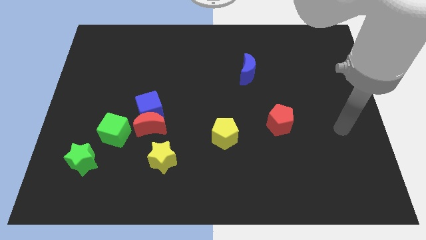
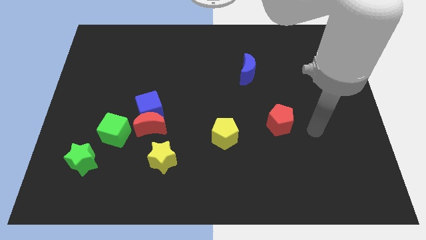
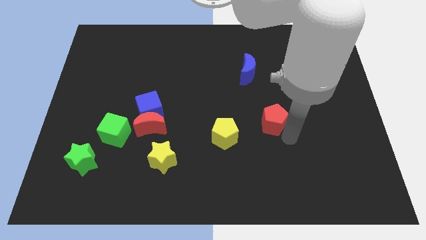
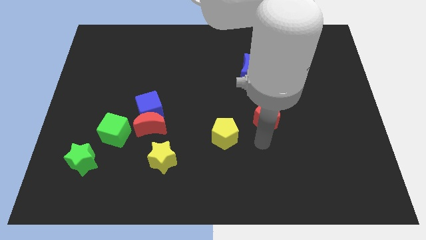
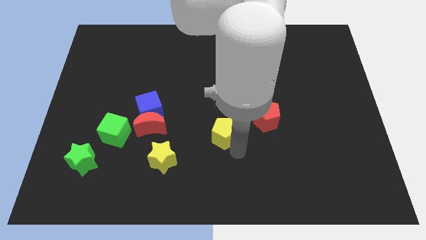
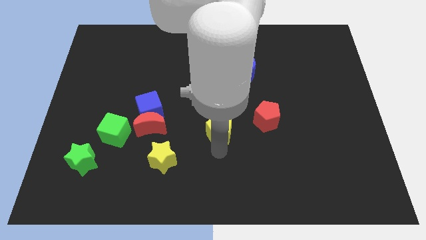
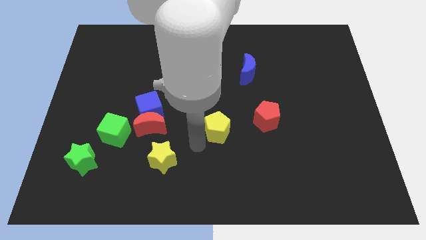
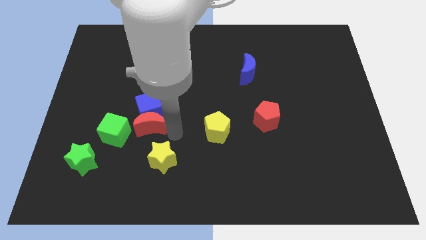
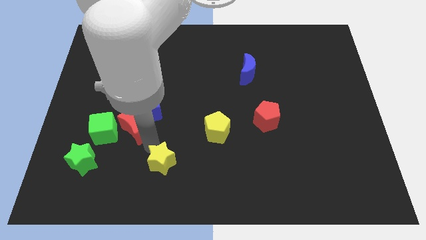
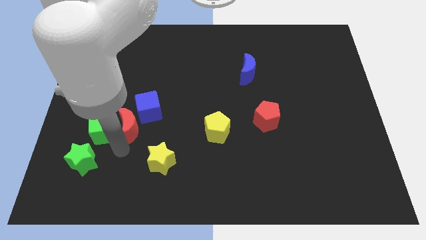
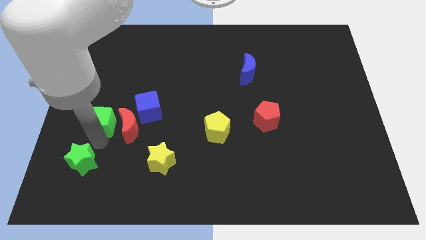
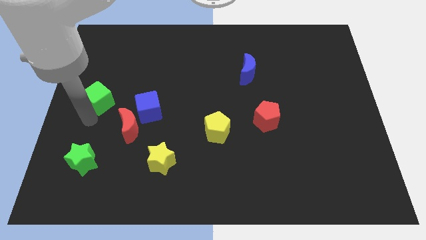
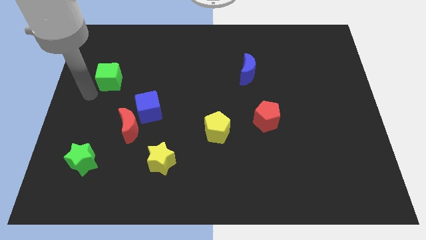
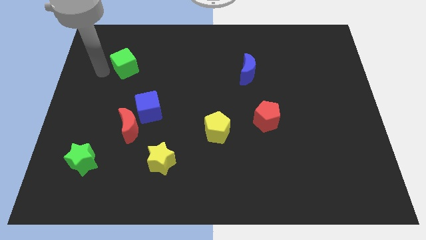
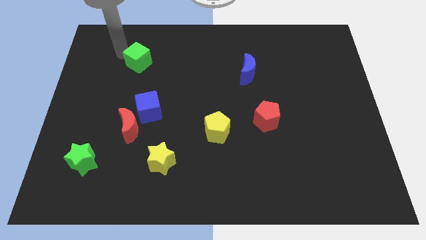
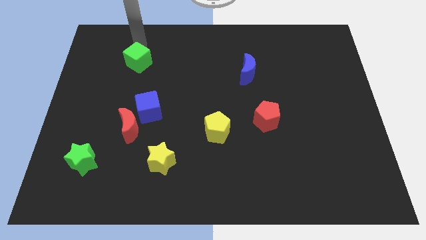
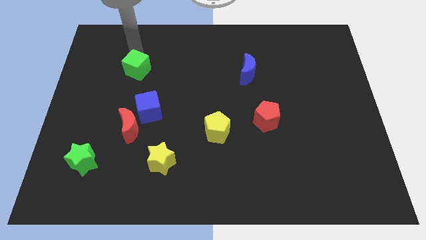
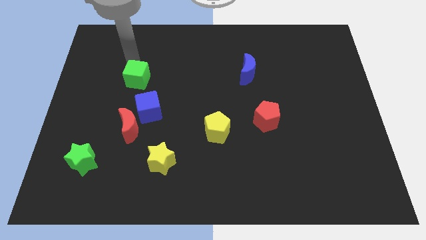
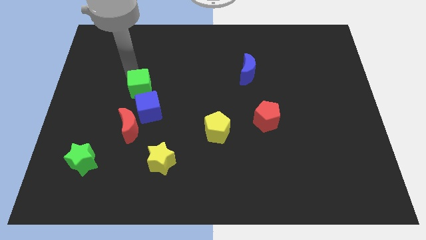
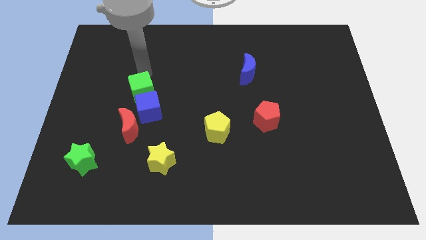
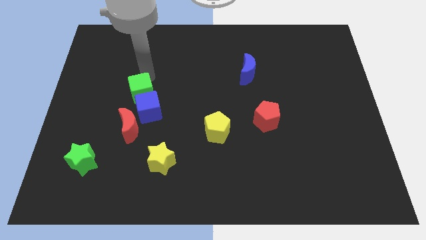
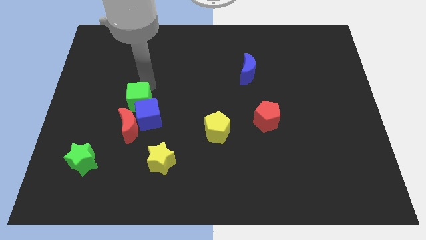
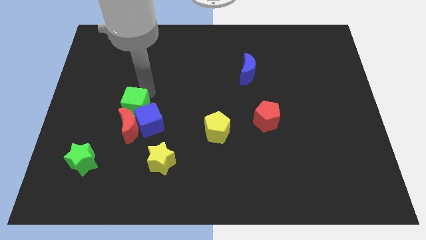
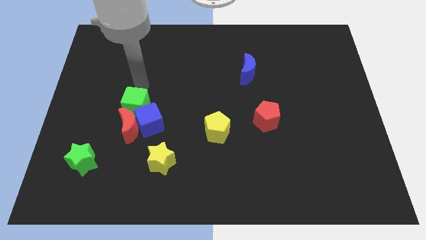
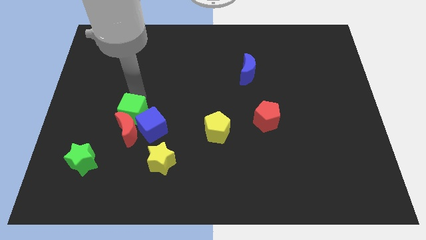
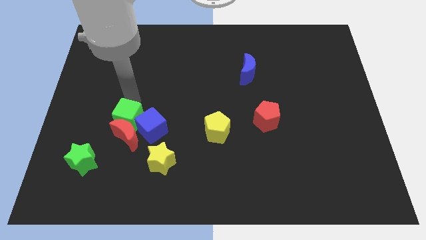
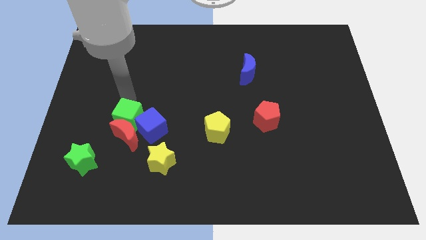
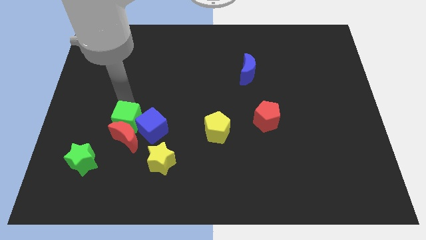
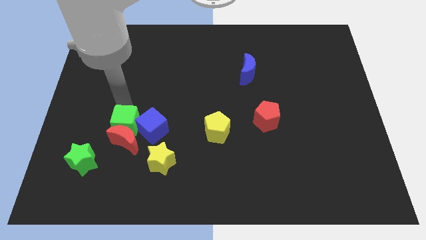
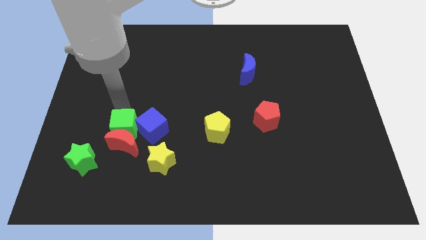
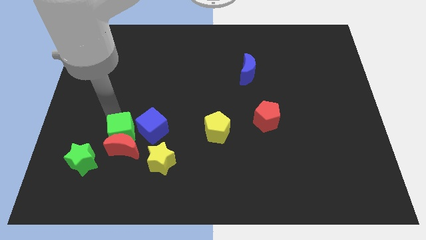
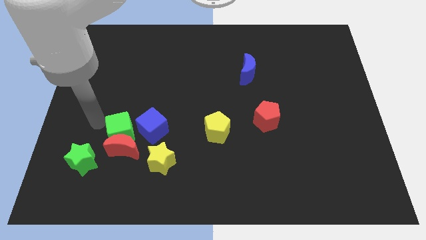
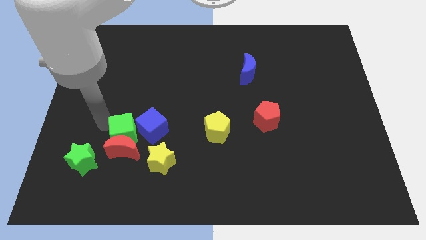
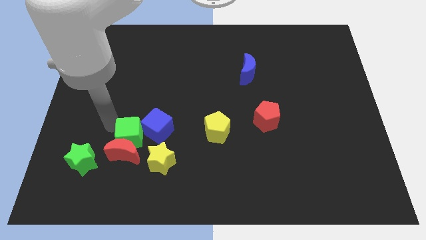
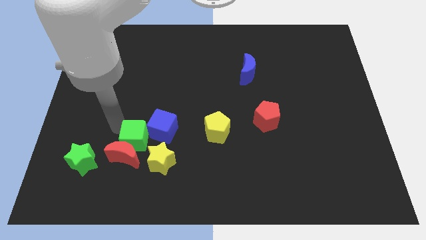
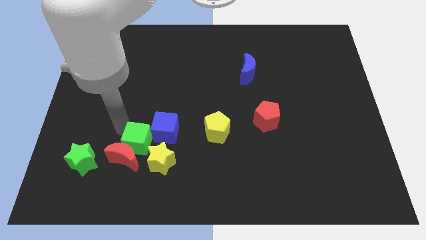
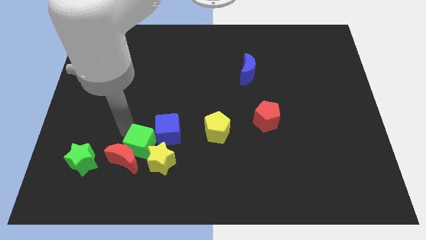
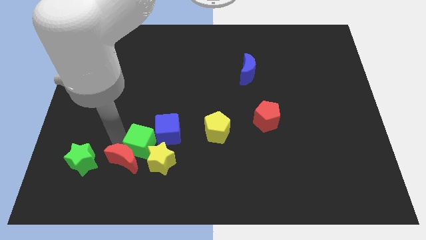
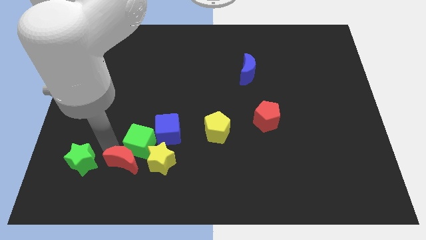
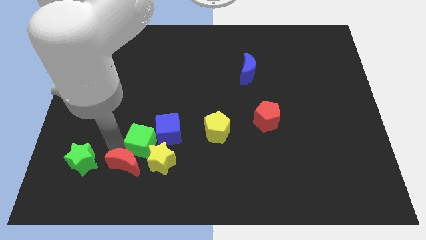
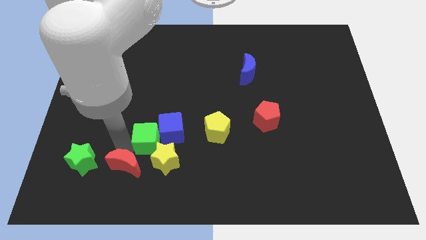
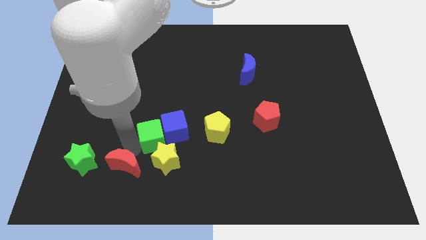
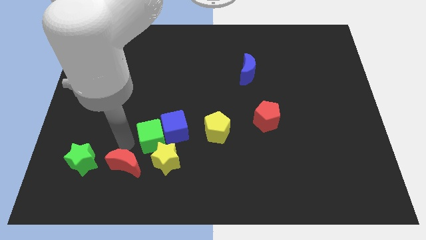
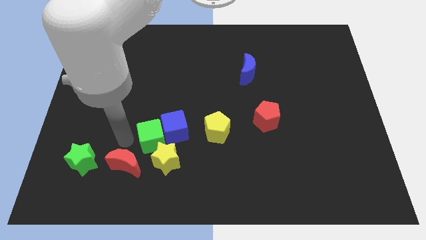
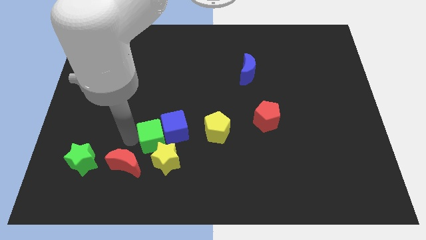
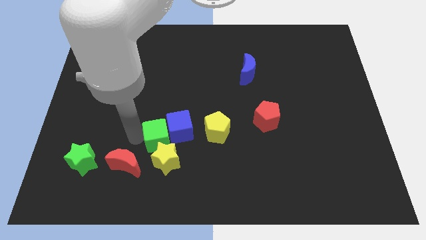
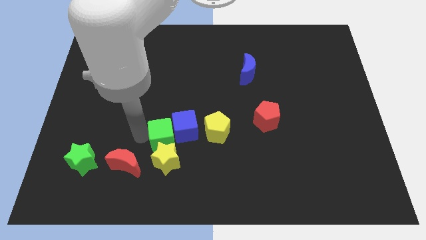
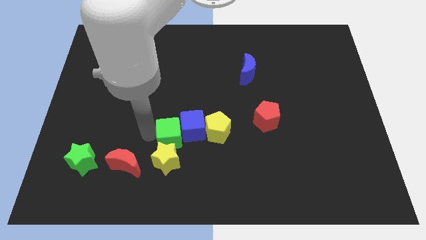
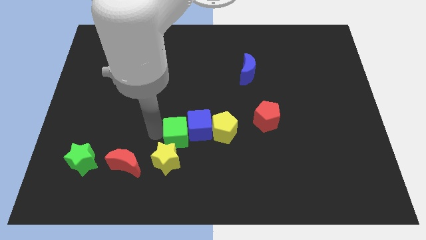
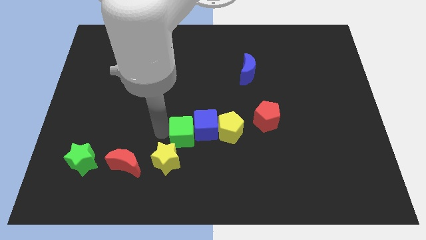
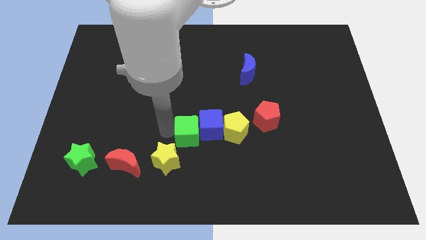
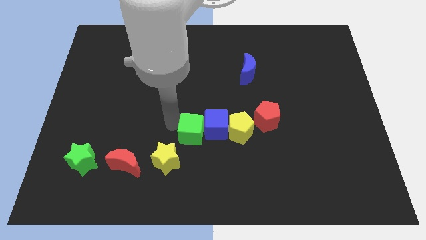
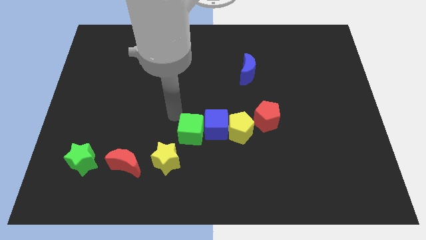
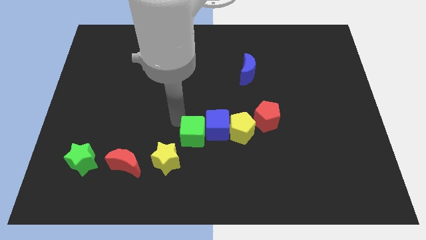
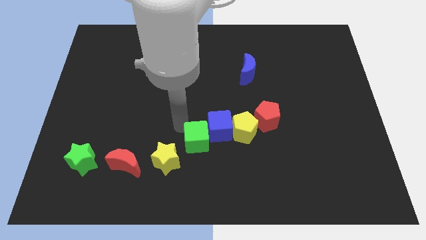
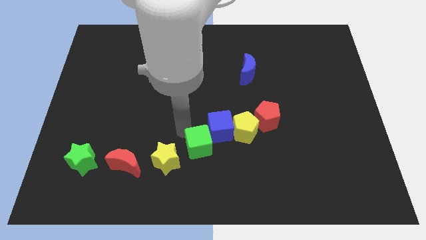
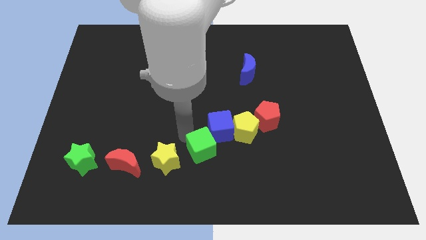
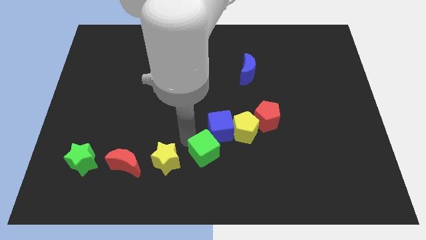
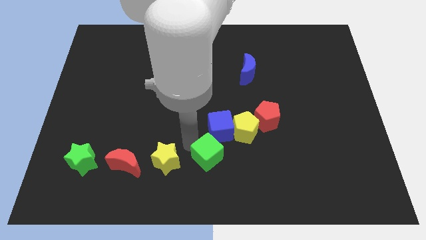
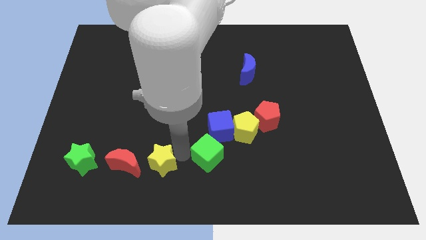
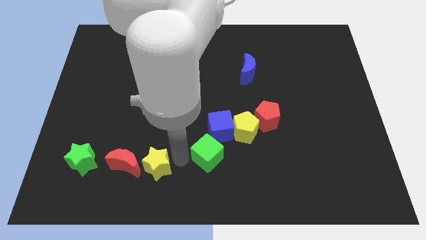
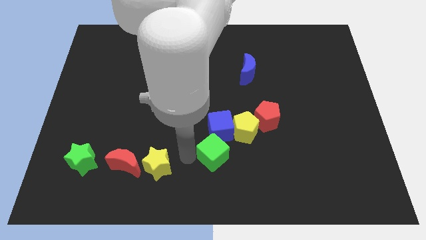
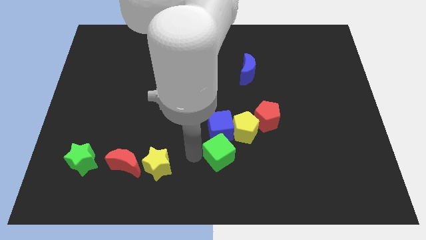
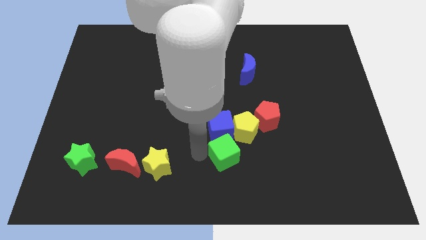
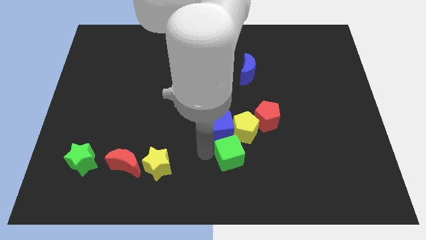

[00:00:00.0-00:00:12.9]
move the green cube diagonally down and to the left of the red pentagon

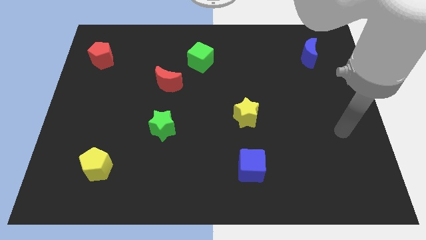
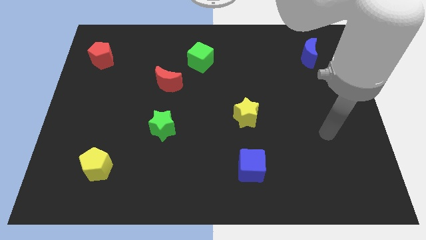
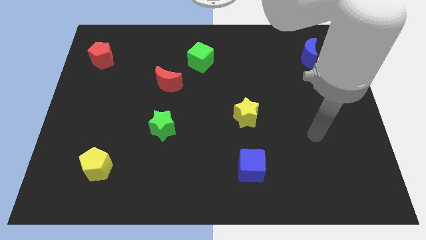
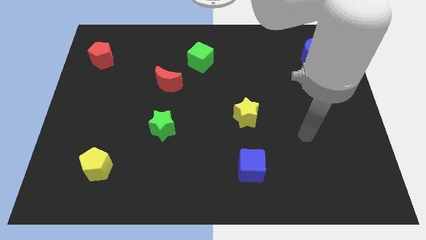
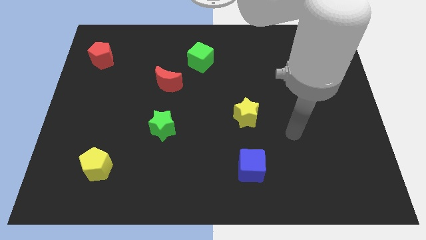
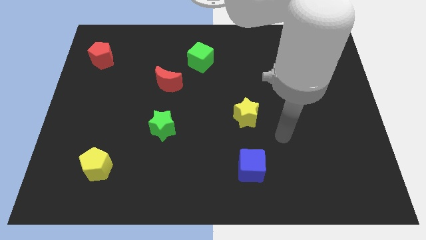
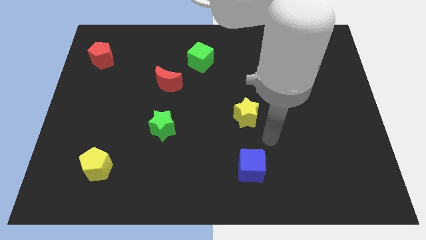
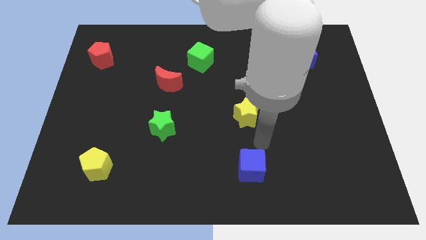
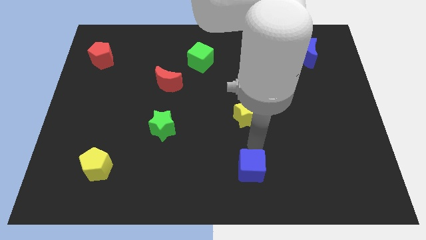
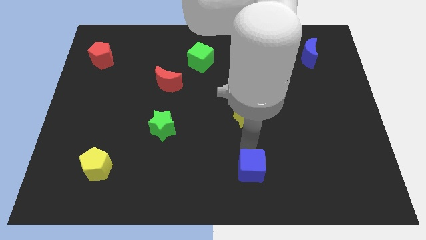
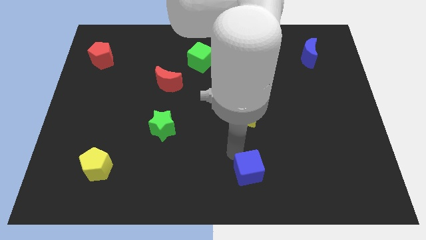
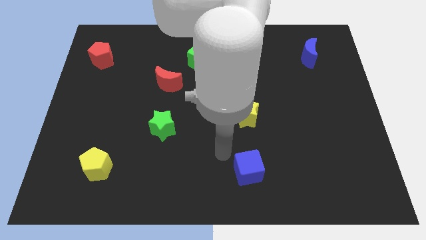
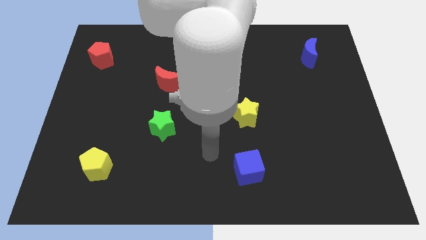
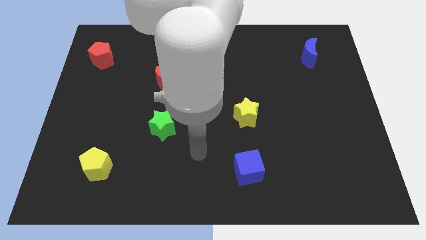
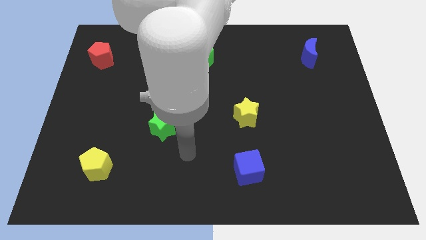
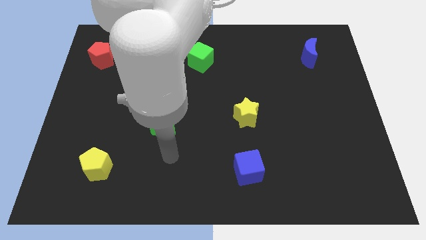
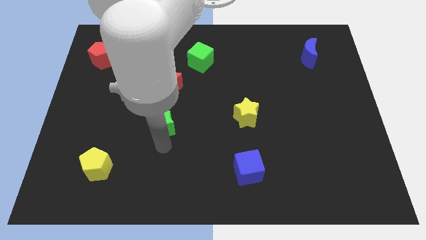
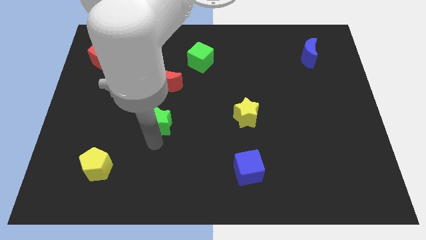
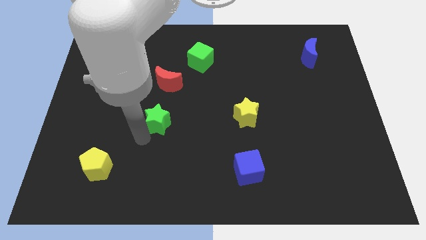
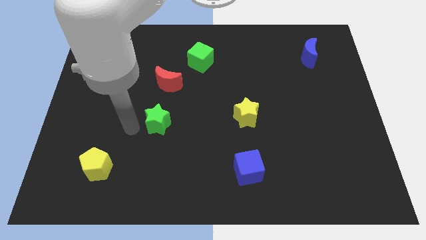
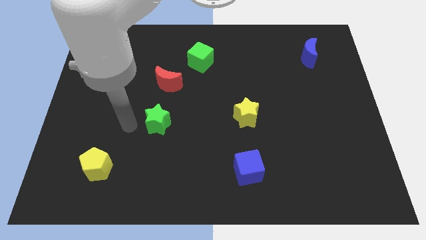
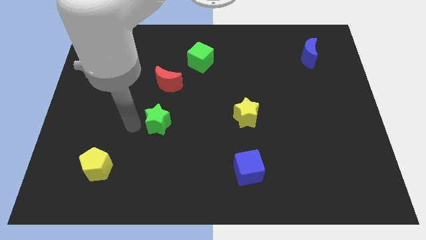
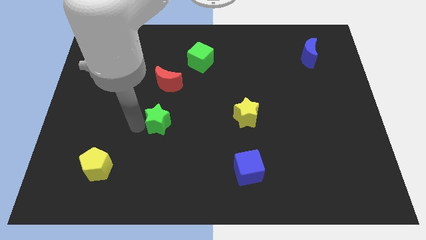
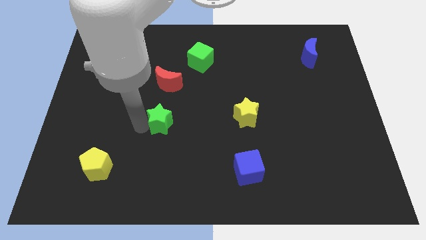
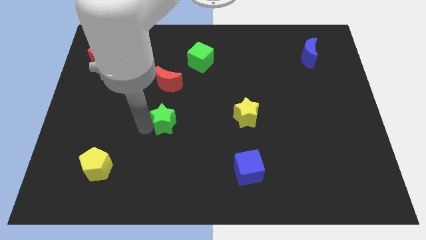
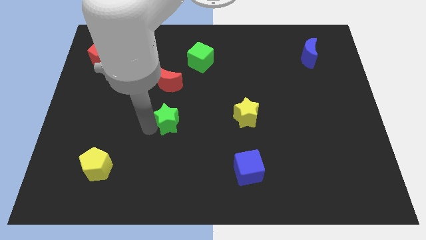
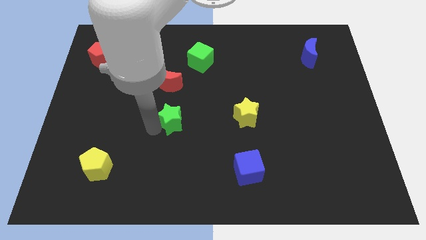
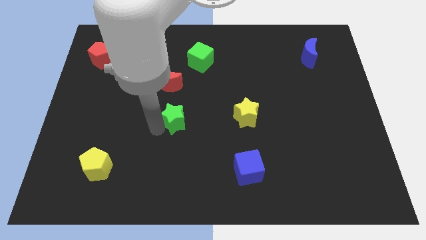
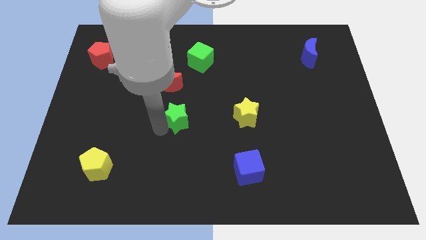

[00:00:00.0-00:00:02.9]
push the green star left of the yellow star
